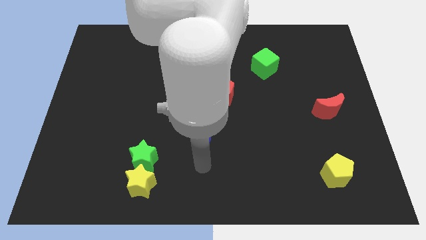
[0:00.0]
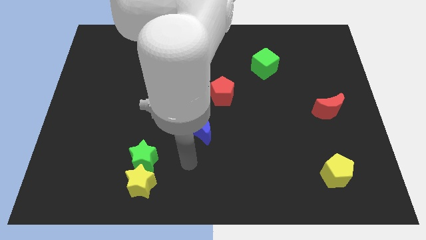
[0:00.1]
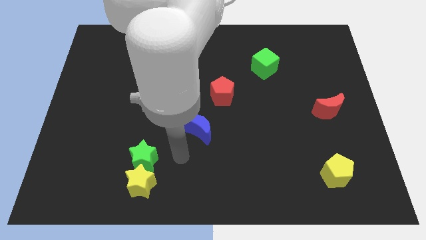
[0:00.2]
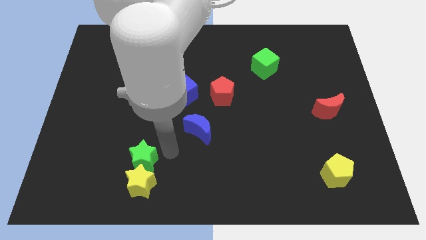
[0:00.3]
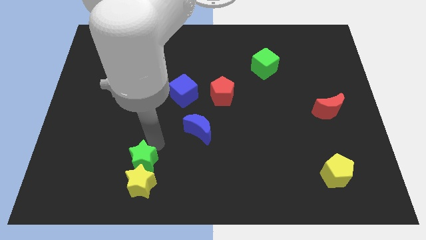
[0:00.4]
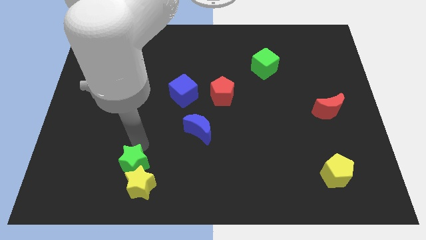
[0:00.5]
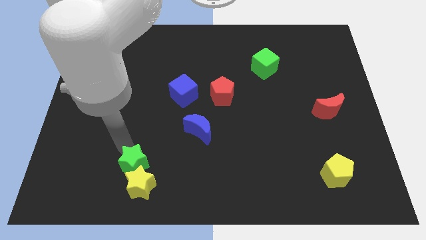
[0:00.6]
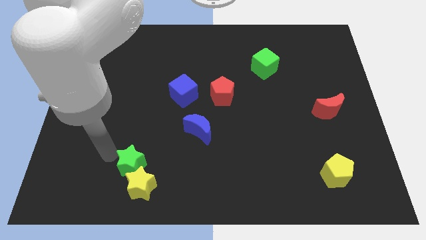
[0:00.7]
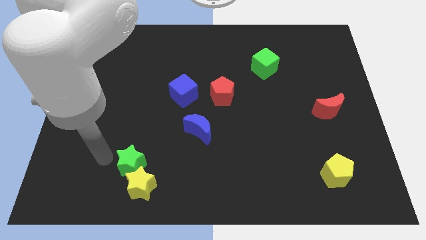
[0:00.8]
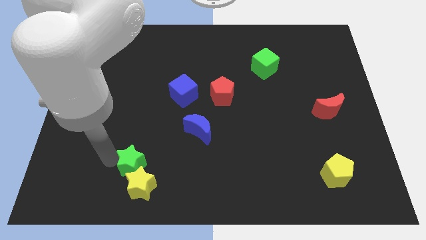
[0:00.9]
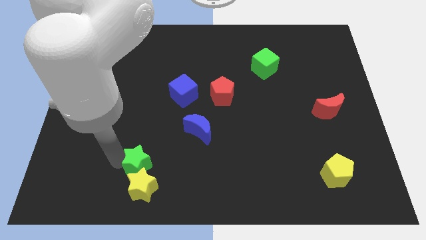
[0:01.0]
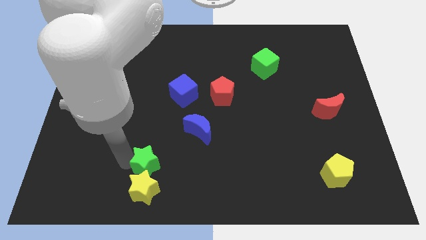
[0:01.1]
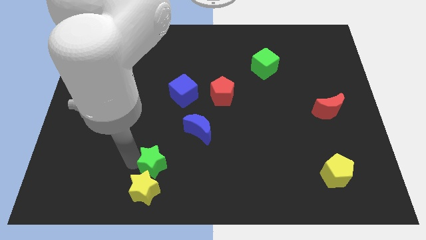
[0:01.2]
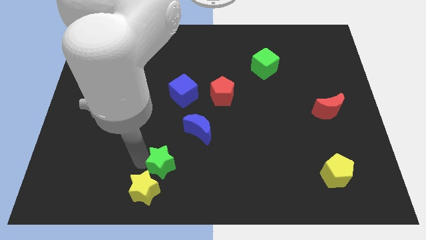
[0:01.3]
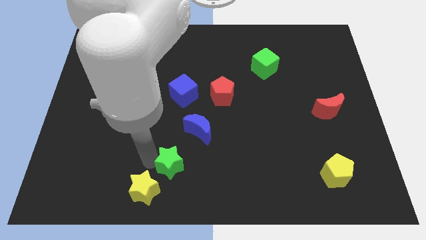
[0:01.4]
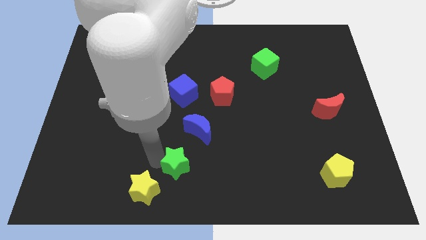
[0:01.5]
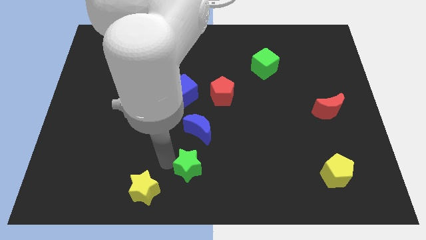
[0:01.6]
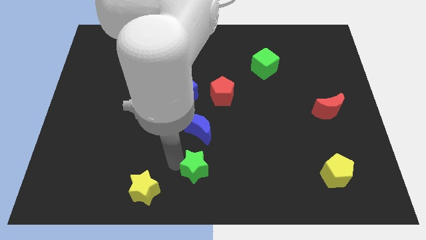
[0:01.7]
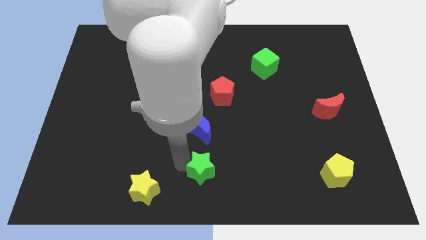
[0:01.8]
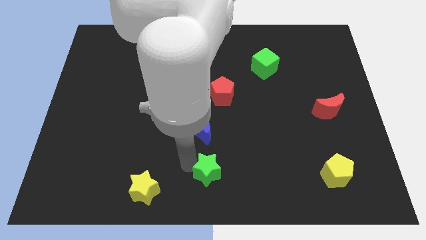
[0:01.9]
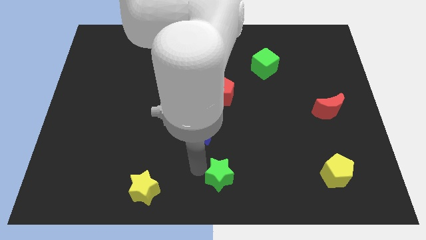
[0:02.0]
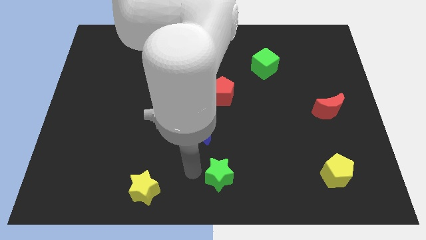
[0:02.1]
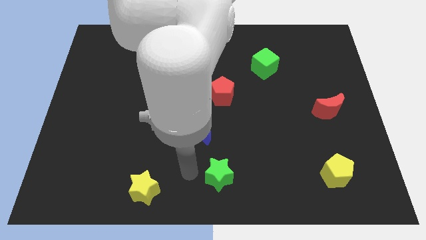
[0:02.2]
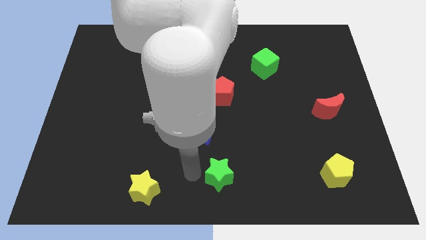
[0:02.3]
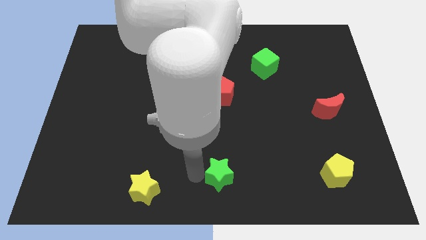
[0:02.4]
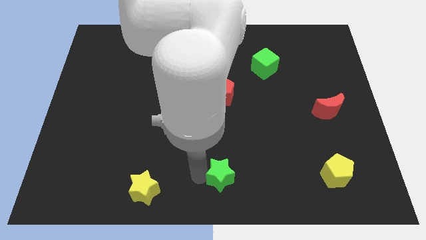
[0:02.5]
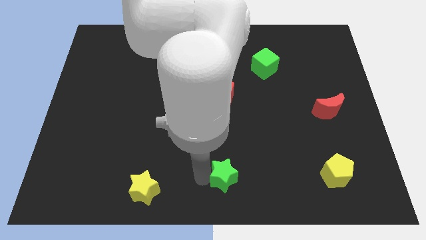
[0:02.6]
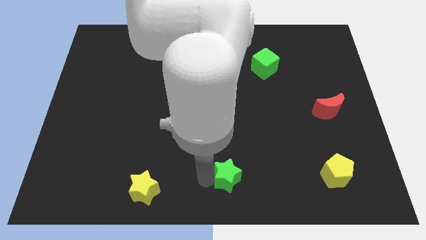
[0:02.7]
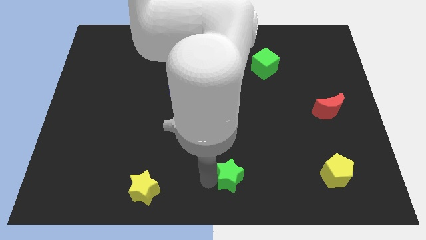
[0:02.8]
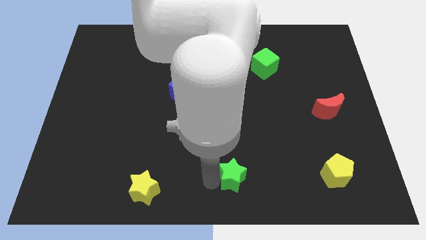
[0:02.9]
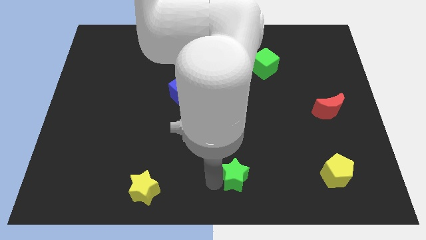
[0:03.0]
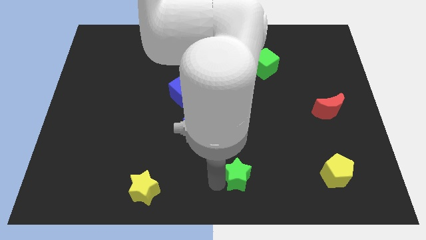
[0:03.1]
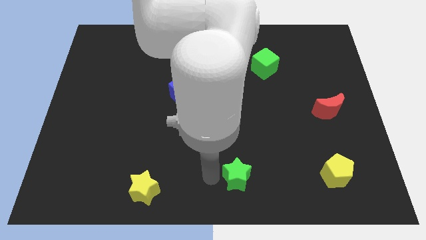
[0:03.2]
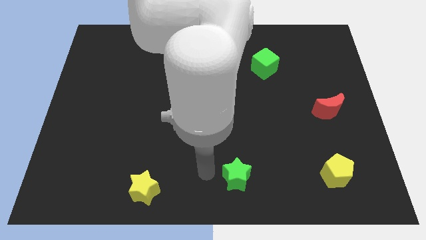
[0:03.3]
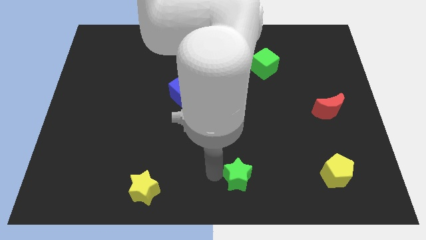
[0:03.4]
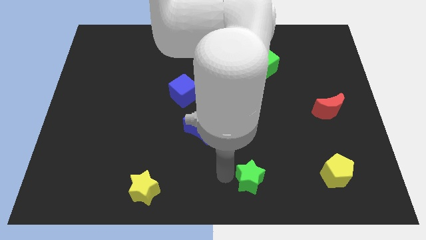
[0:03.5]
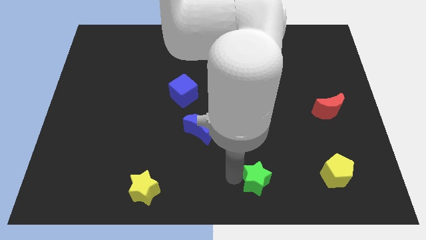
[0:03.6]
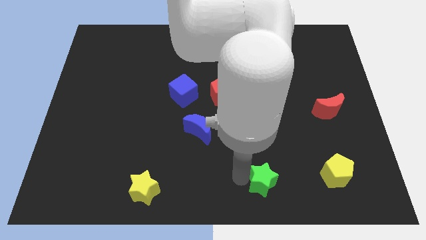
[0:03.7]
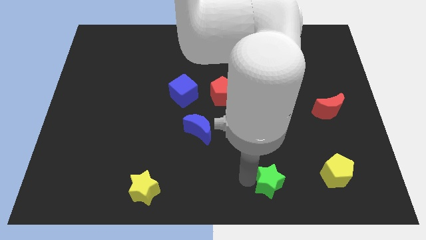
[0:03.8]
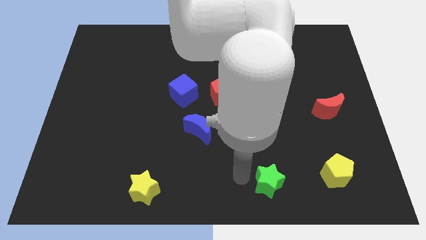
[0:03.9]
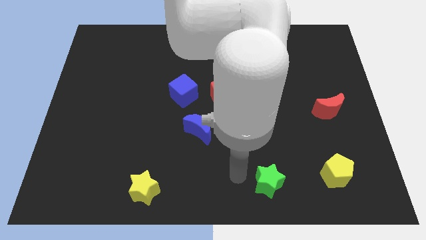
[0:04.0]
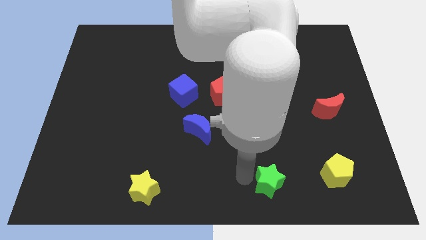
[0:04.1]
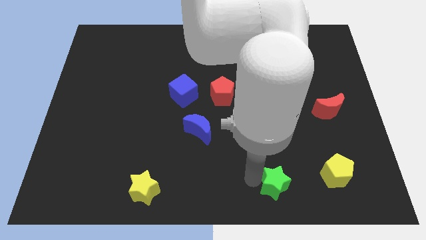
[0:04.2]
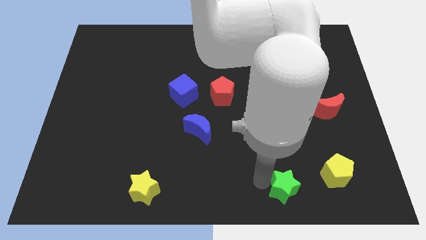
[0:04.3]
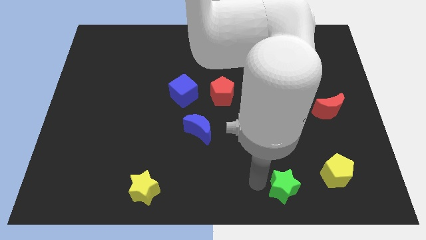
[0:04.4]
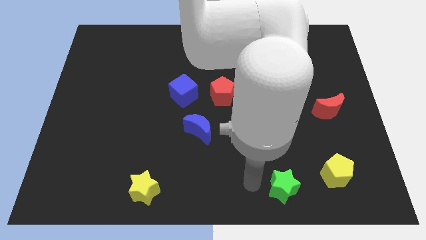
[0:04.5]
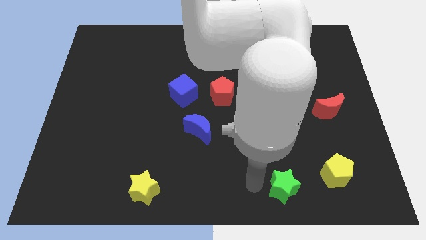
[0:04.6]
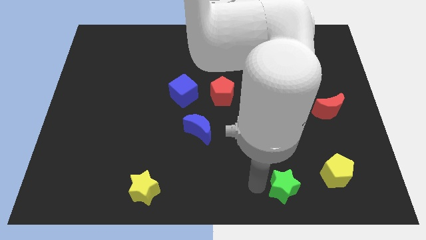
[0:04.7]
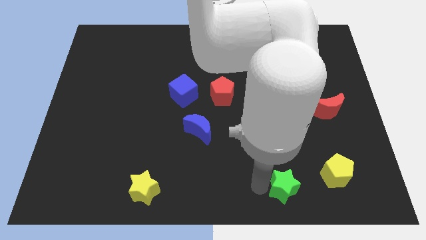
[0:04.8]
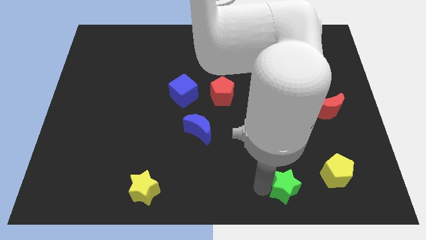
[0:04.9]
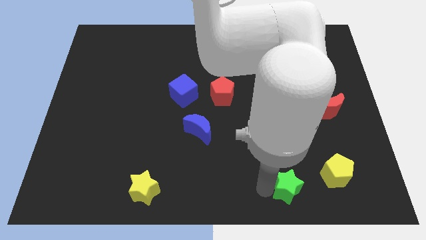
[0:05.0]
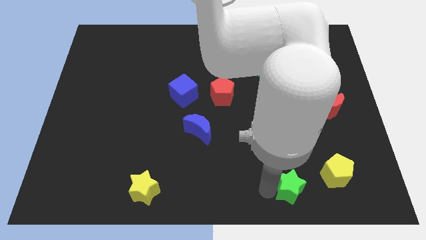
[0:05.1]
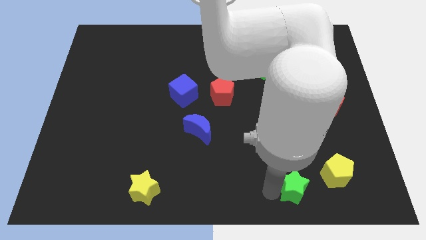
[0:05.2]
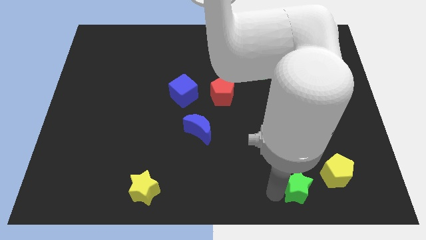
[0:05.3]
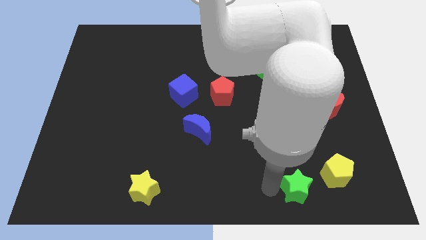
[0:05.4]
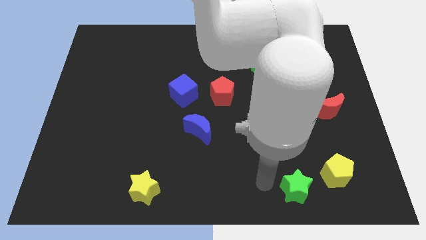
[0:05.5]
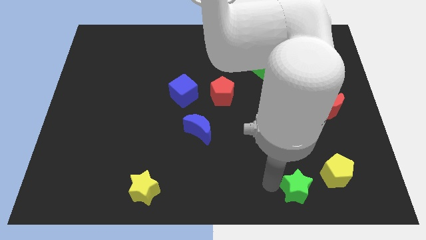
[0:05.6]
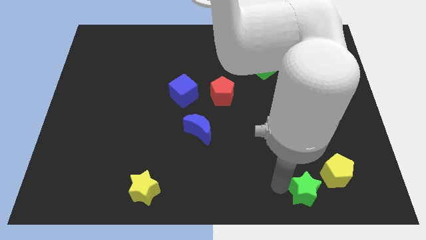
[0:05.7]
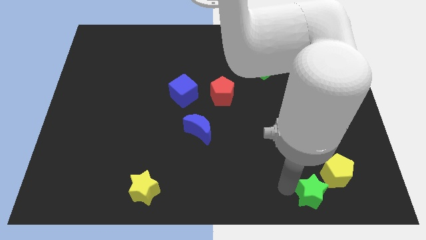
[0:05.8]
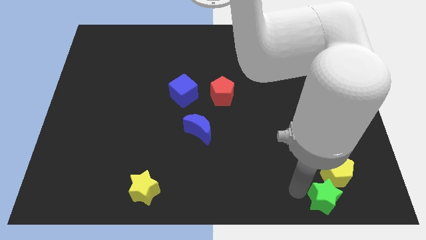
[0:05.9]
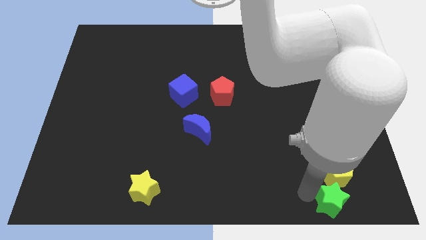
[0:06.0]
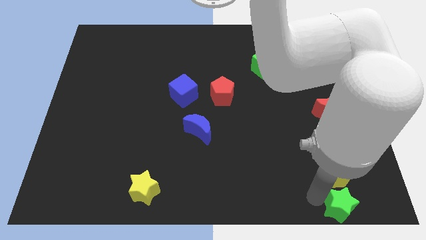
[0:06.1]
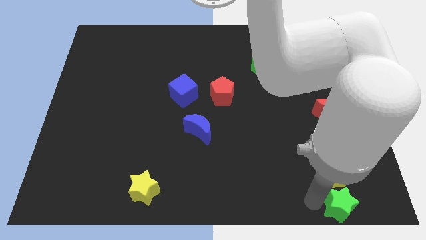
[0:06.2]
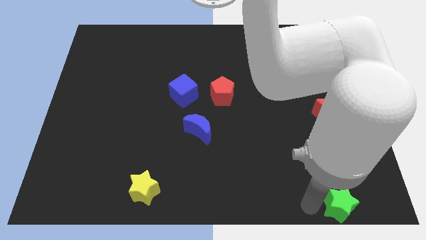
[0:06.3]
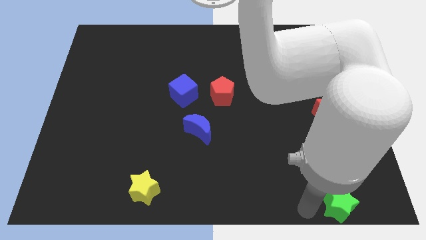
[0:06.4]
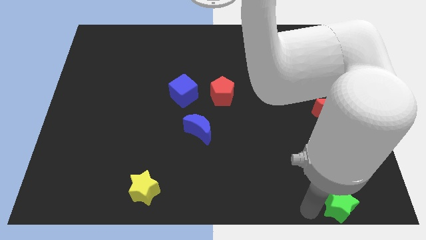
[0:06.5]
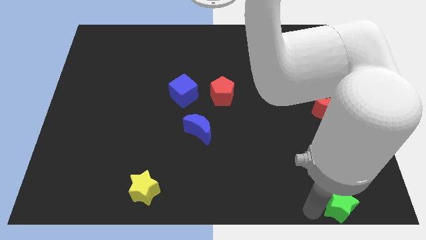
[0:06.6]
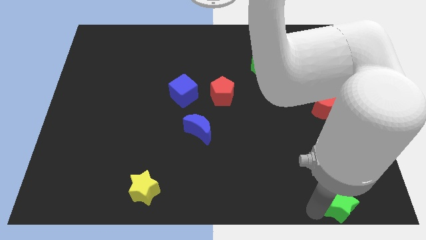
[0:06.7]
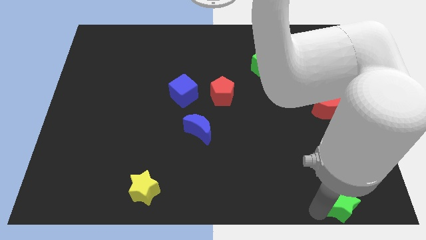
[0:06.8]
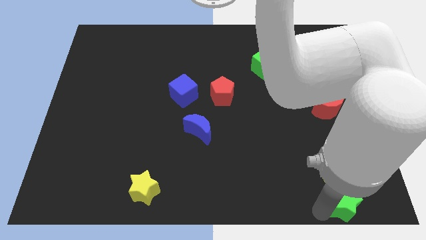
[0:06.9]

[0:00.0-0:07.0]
put the green star to the bottom right of the board

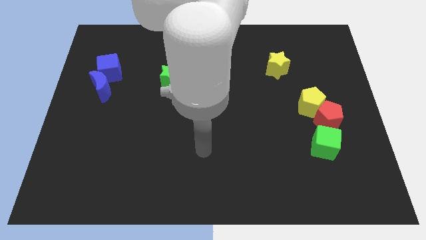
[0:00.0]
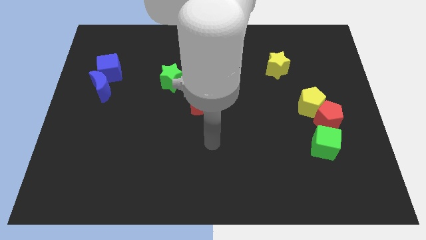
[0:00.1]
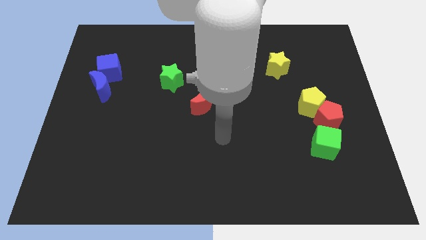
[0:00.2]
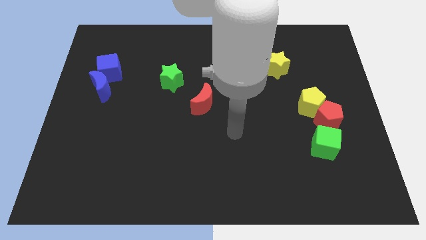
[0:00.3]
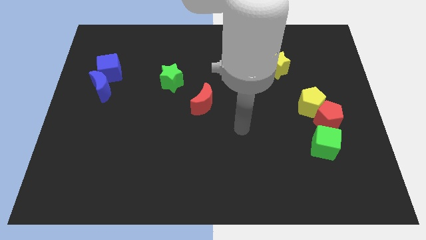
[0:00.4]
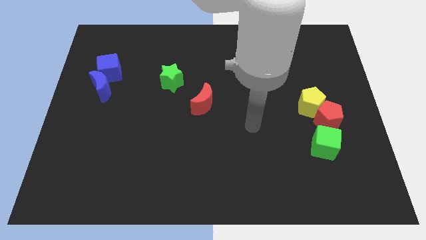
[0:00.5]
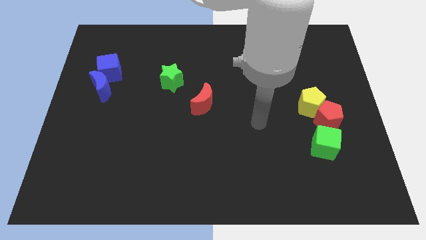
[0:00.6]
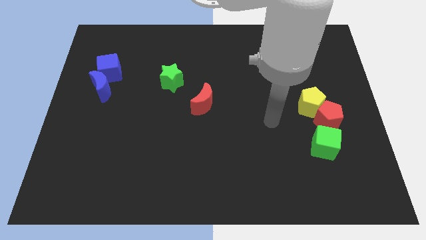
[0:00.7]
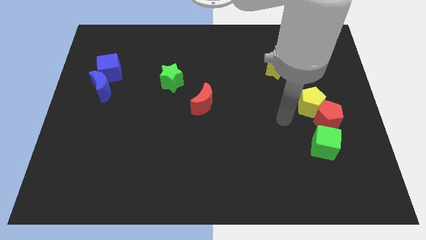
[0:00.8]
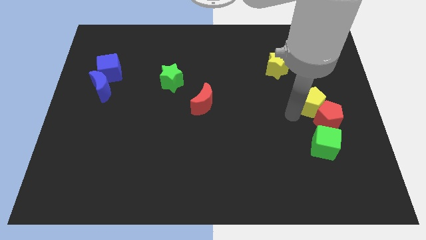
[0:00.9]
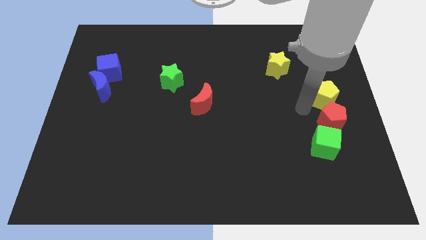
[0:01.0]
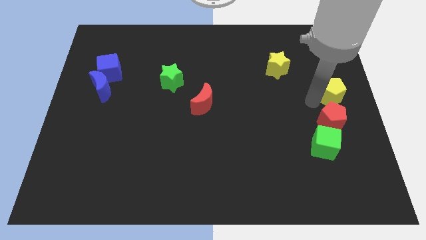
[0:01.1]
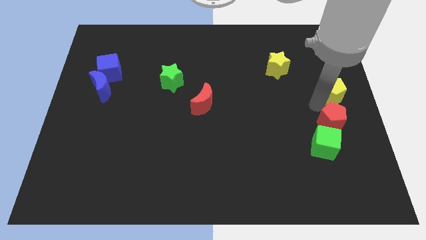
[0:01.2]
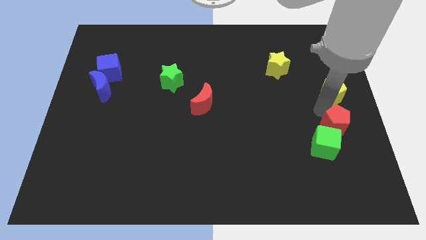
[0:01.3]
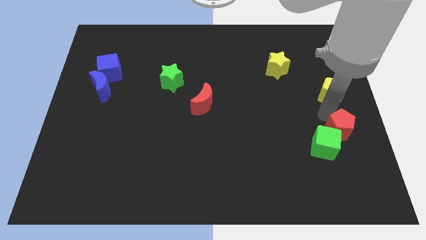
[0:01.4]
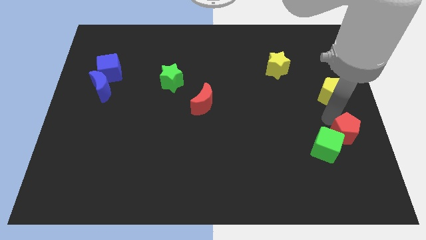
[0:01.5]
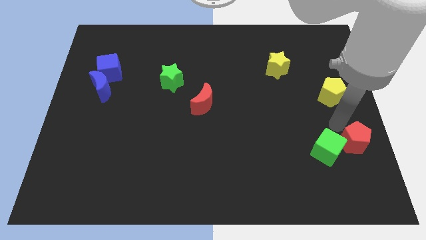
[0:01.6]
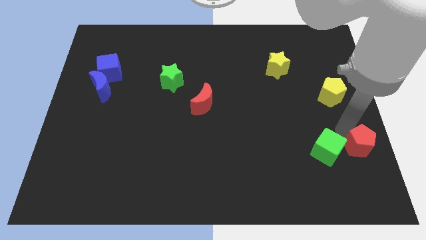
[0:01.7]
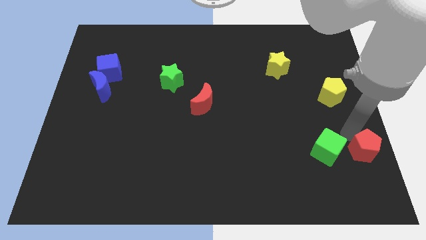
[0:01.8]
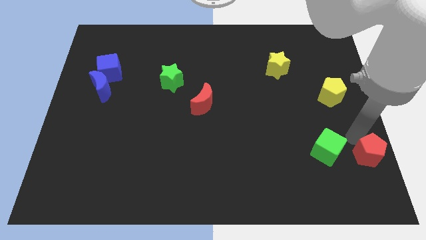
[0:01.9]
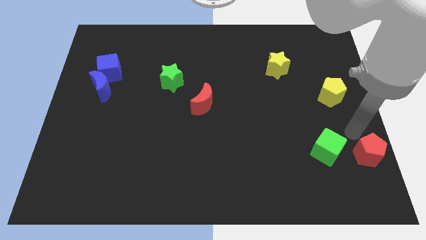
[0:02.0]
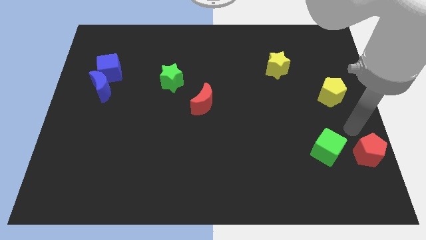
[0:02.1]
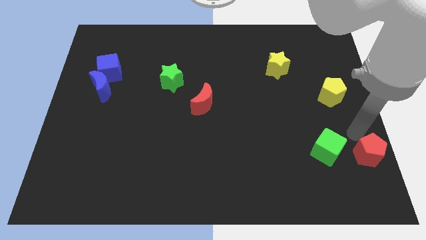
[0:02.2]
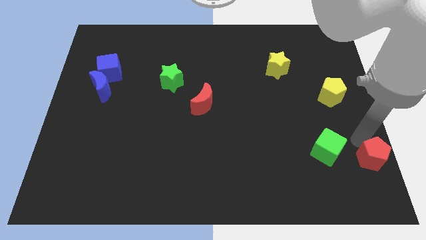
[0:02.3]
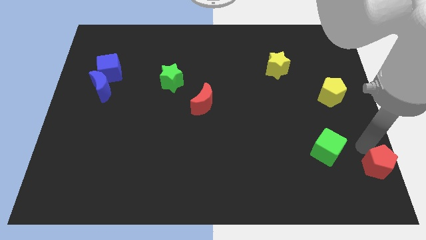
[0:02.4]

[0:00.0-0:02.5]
move the red pentagon to the bottom right corner
